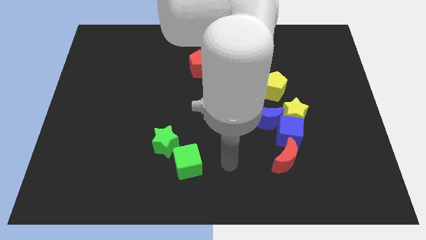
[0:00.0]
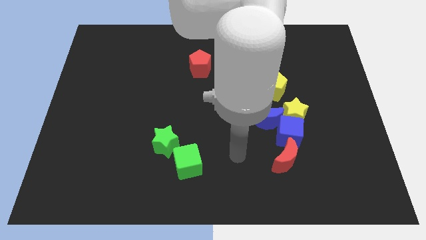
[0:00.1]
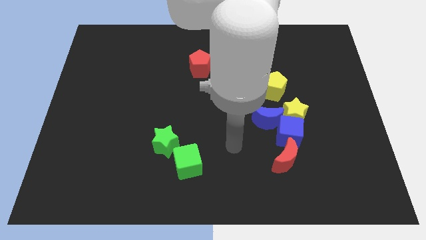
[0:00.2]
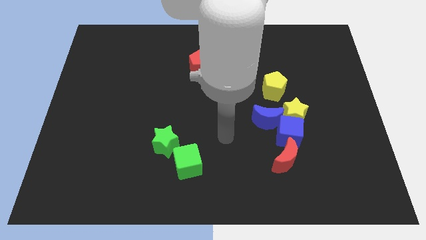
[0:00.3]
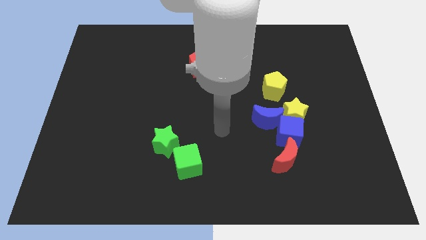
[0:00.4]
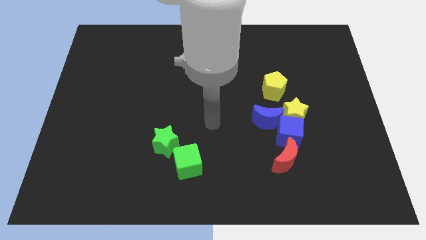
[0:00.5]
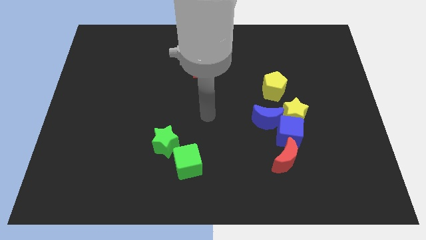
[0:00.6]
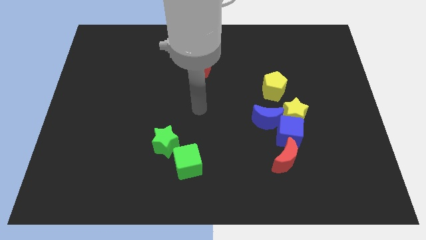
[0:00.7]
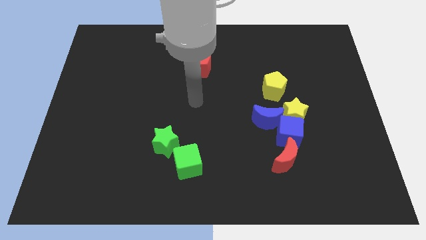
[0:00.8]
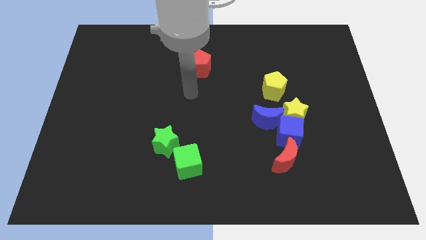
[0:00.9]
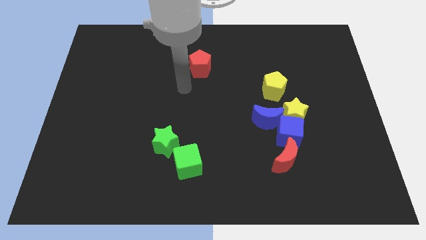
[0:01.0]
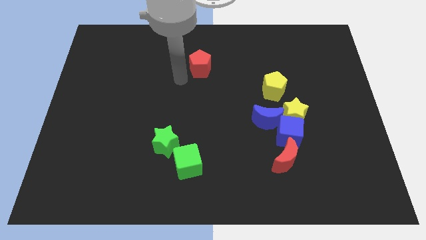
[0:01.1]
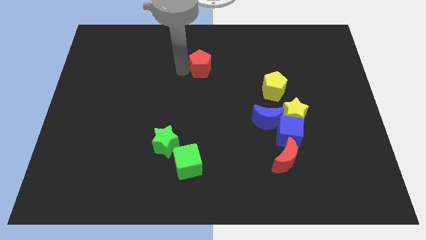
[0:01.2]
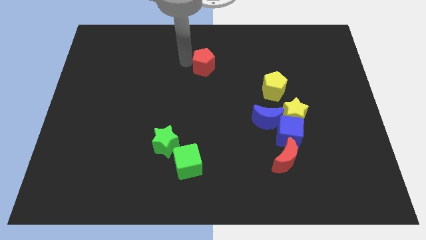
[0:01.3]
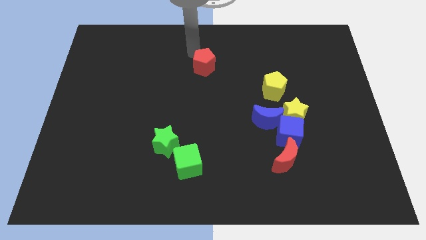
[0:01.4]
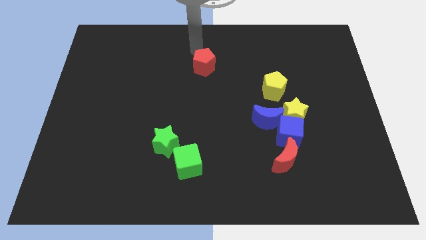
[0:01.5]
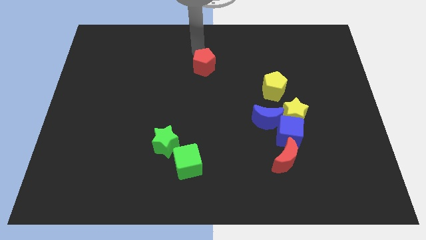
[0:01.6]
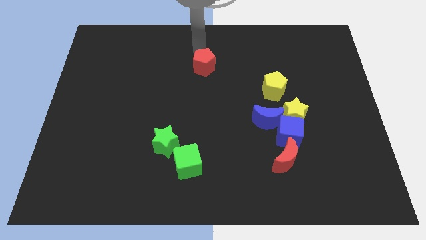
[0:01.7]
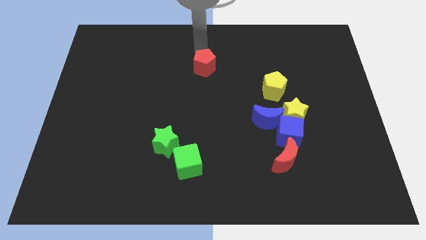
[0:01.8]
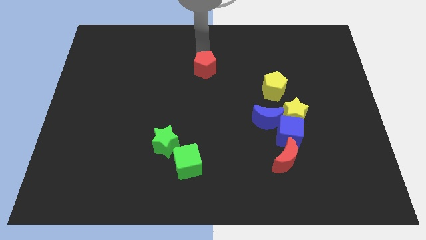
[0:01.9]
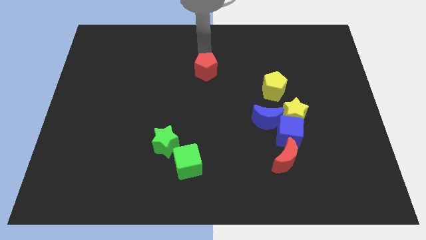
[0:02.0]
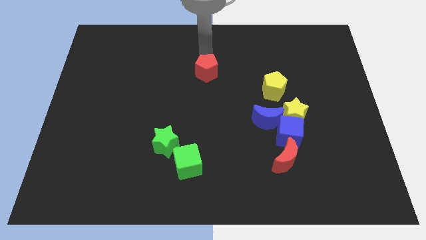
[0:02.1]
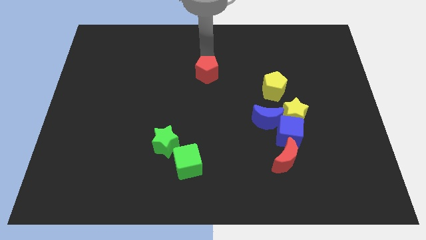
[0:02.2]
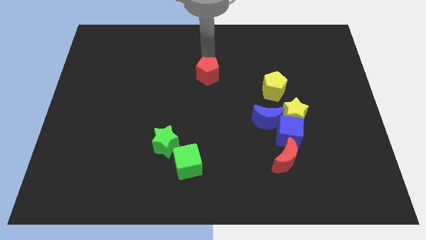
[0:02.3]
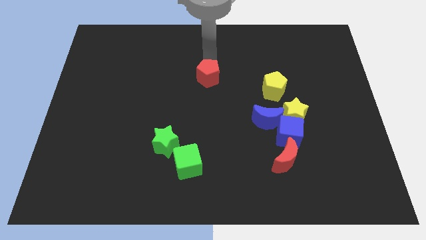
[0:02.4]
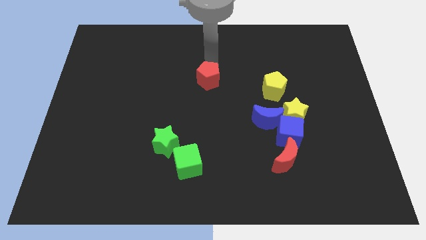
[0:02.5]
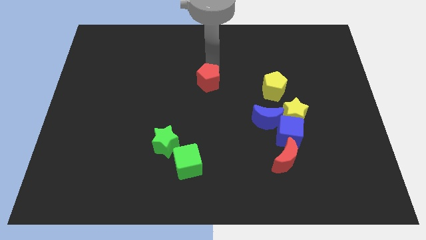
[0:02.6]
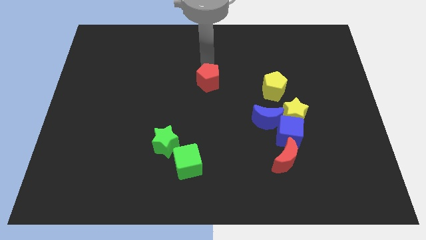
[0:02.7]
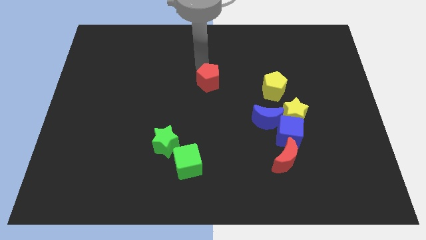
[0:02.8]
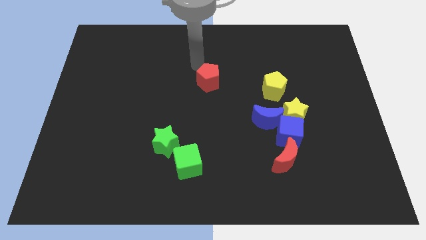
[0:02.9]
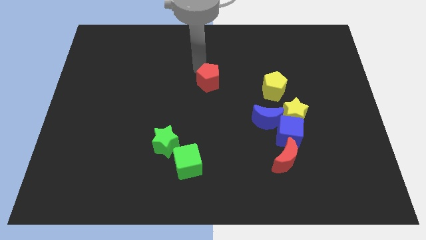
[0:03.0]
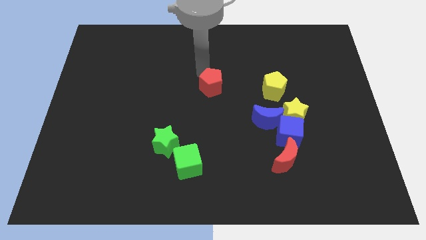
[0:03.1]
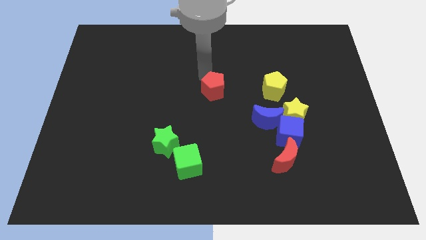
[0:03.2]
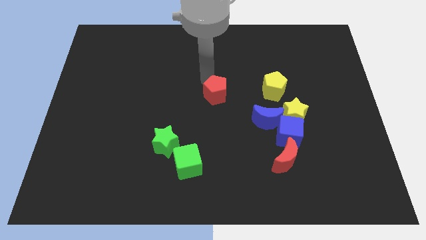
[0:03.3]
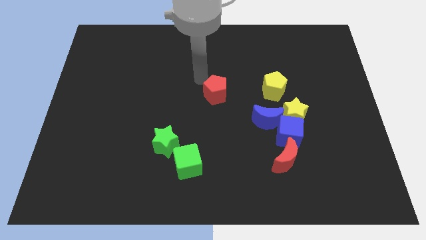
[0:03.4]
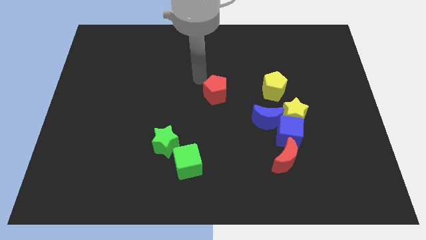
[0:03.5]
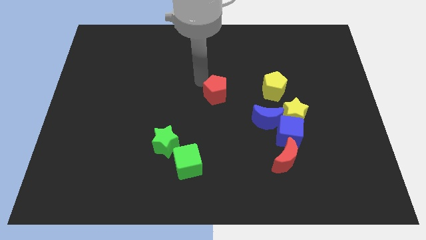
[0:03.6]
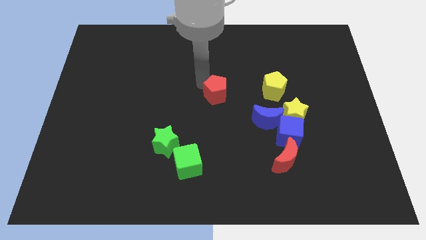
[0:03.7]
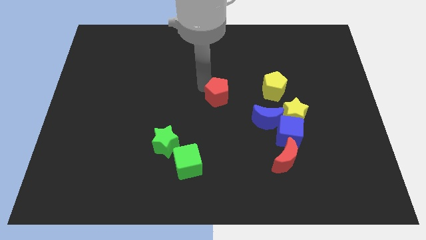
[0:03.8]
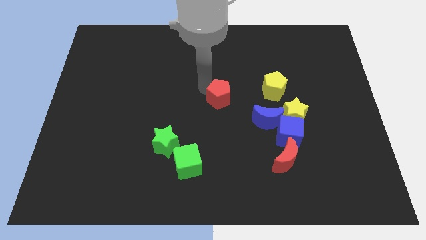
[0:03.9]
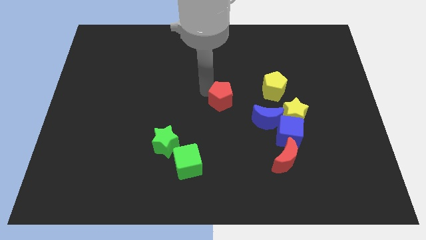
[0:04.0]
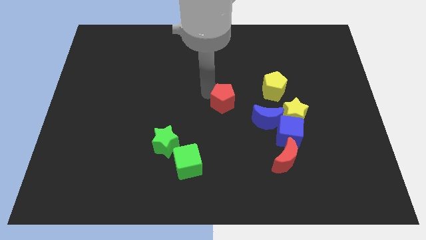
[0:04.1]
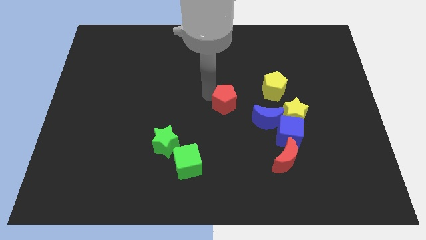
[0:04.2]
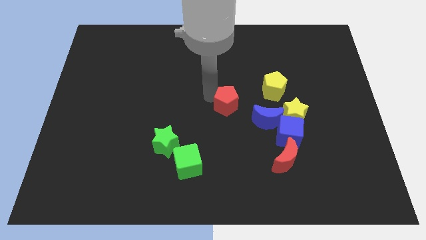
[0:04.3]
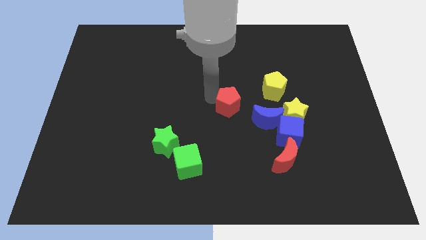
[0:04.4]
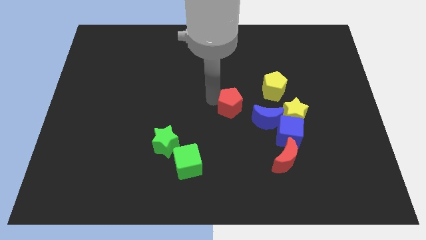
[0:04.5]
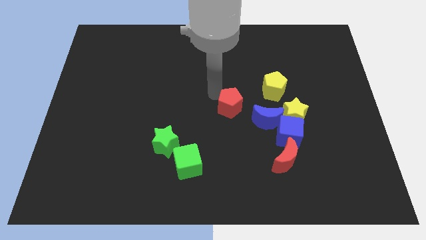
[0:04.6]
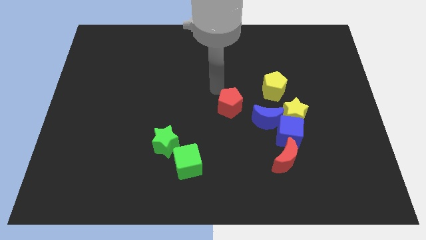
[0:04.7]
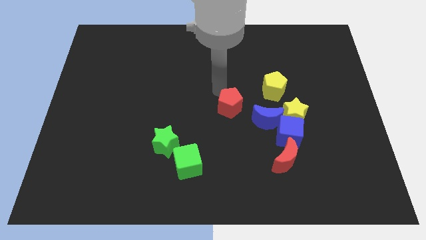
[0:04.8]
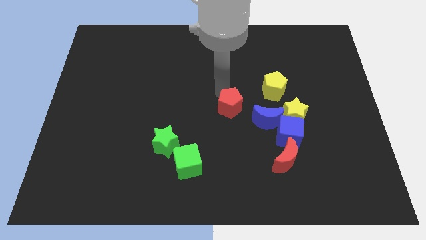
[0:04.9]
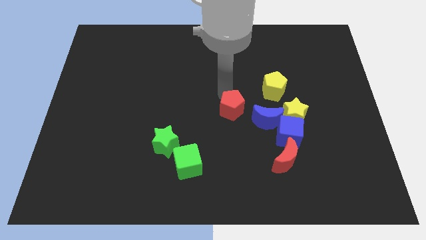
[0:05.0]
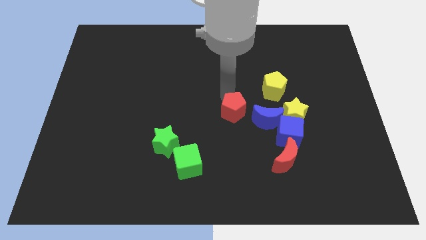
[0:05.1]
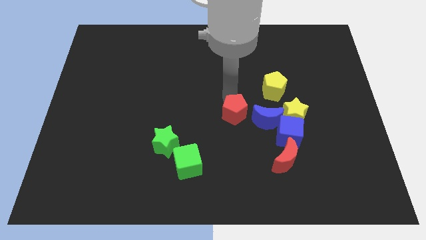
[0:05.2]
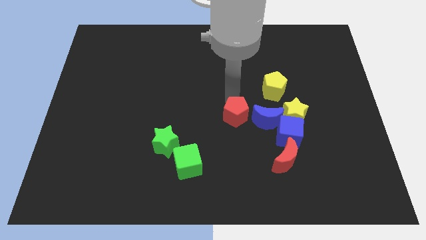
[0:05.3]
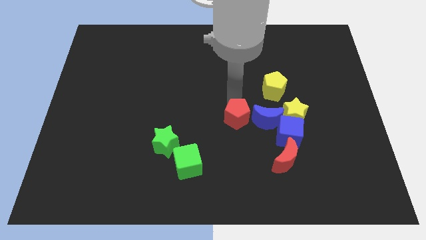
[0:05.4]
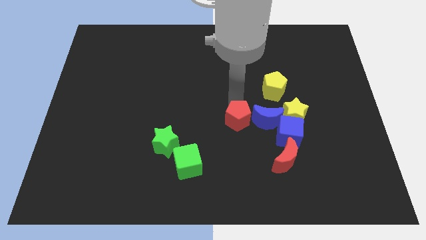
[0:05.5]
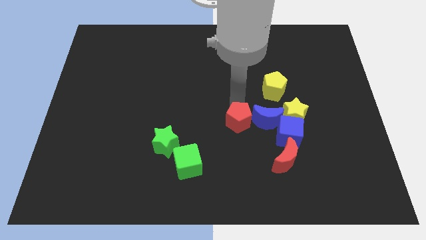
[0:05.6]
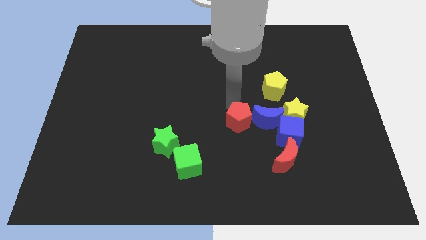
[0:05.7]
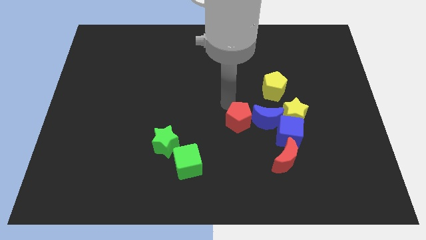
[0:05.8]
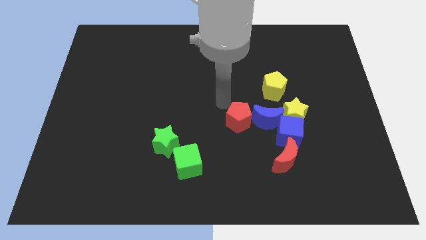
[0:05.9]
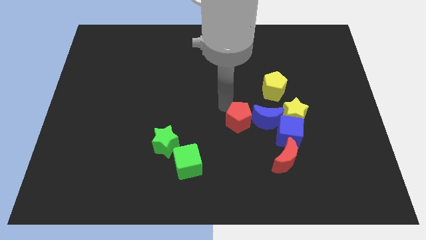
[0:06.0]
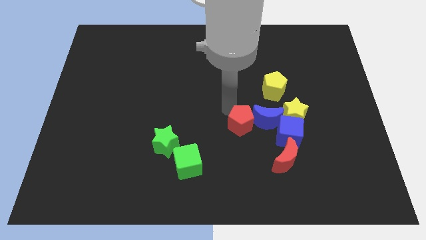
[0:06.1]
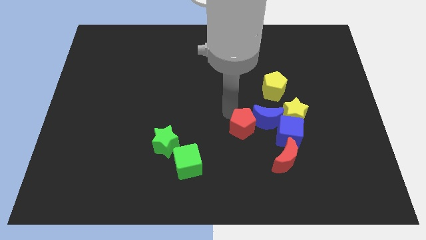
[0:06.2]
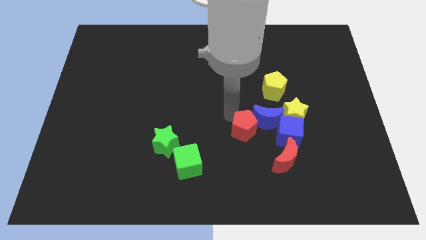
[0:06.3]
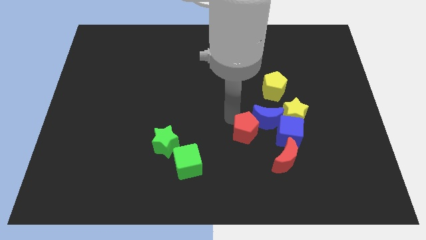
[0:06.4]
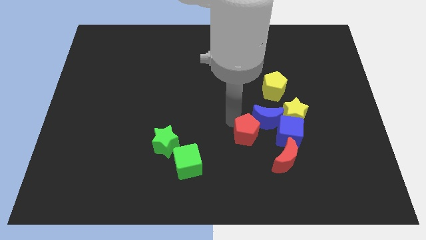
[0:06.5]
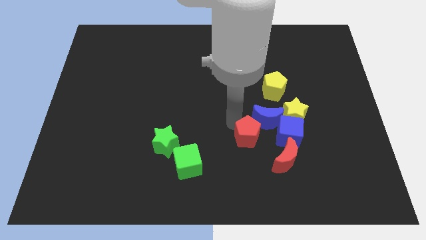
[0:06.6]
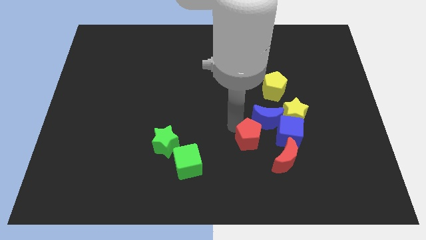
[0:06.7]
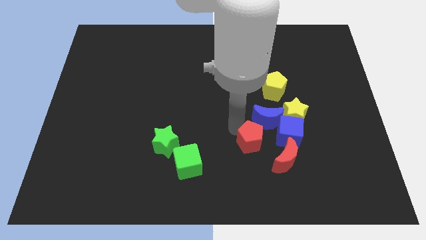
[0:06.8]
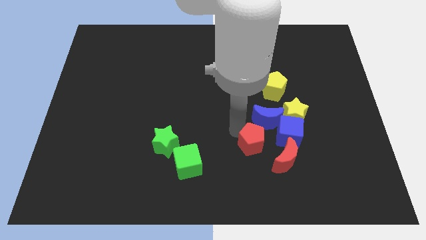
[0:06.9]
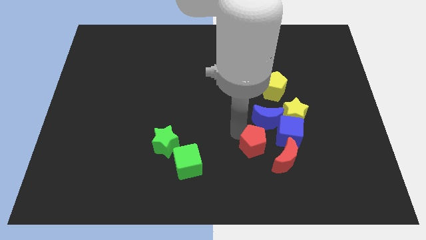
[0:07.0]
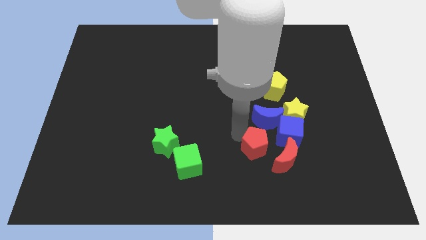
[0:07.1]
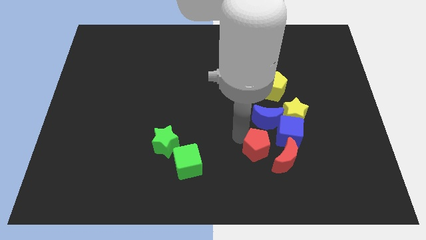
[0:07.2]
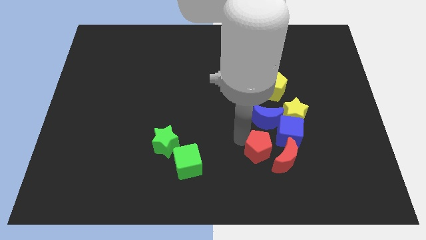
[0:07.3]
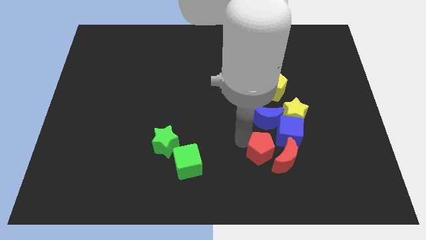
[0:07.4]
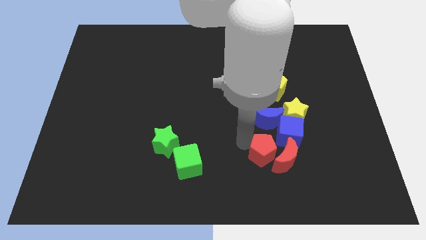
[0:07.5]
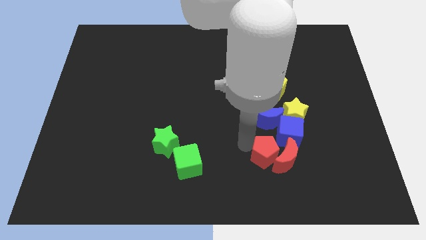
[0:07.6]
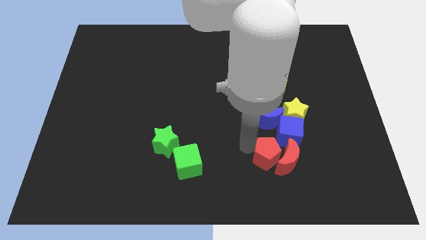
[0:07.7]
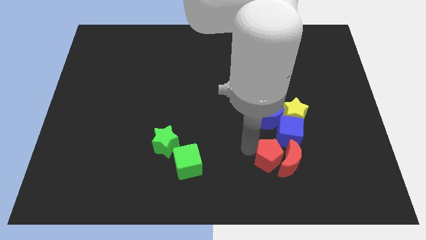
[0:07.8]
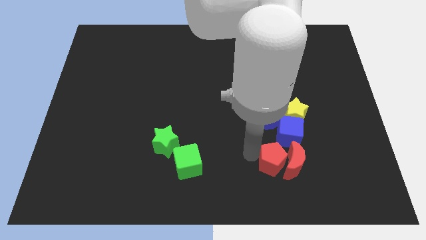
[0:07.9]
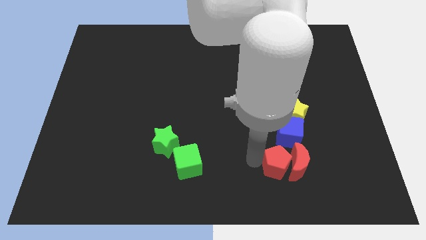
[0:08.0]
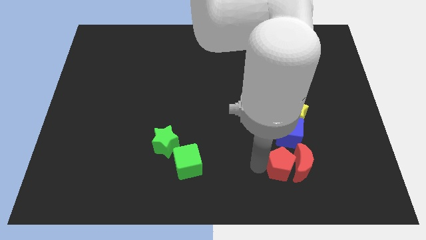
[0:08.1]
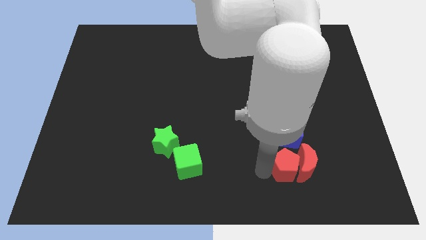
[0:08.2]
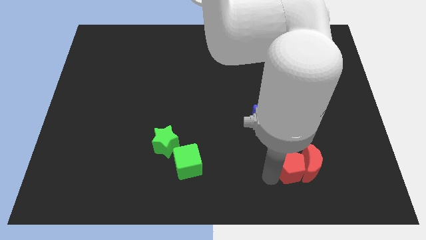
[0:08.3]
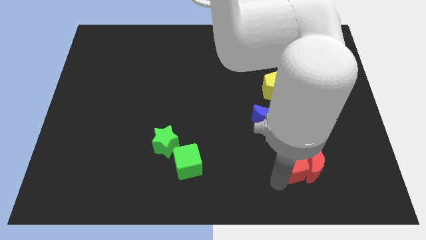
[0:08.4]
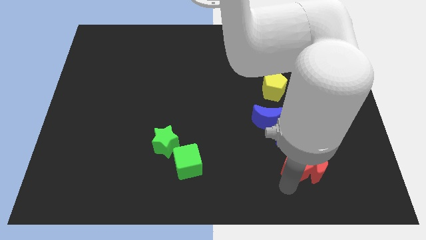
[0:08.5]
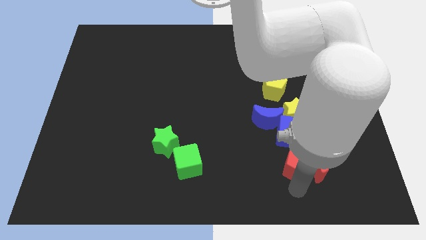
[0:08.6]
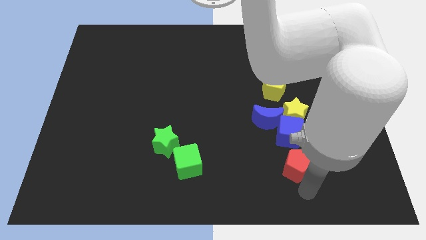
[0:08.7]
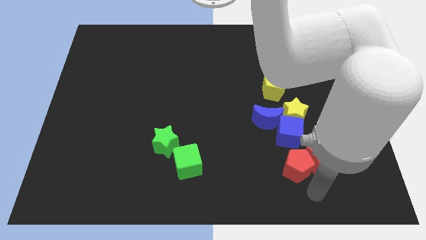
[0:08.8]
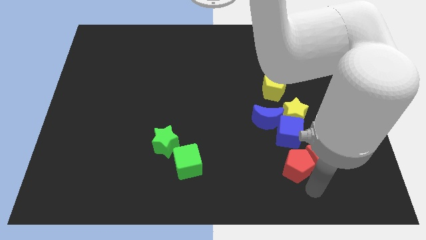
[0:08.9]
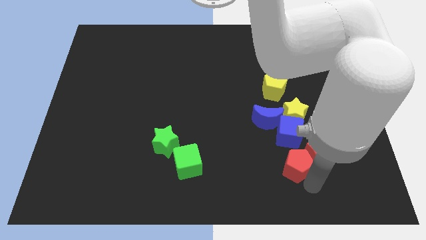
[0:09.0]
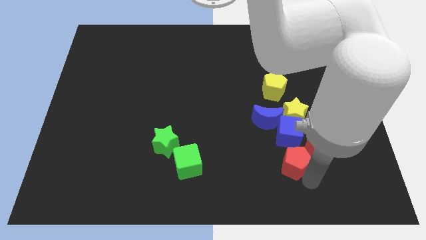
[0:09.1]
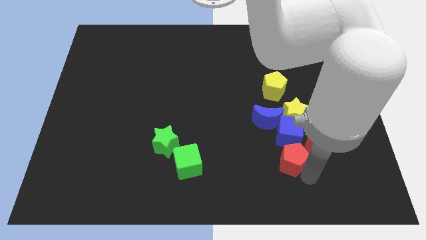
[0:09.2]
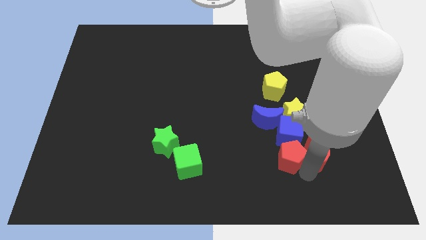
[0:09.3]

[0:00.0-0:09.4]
put the red pentagon close to the blue cube
